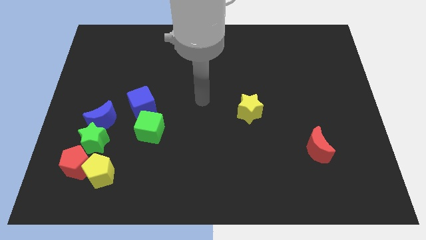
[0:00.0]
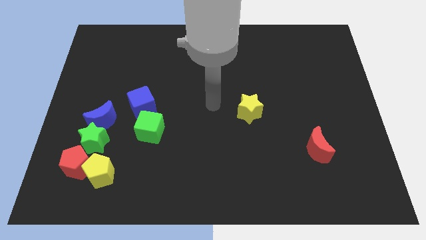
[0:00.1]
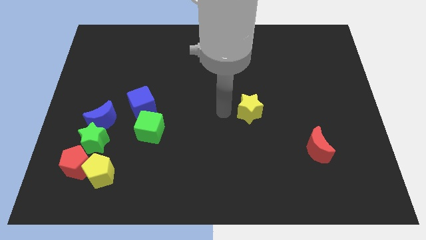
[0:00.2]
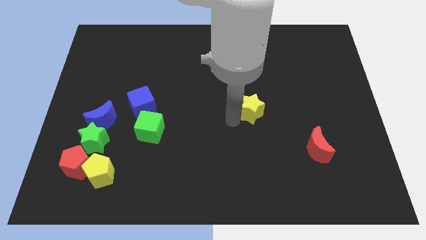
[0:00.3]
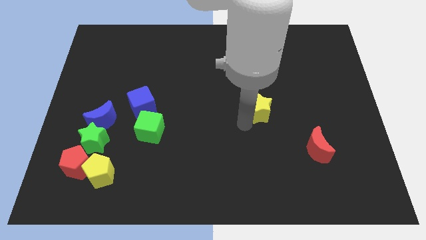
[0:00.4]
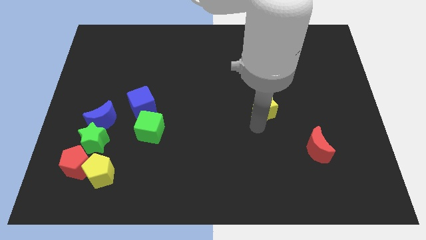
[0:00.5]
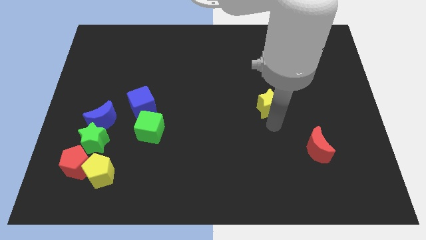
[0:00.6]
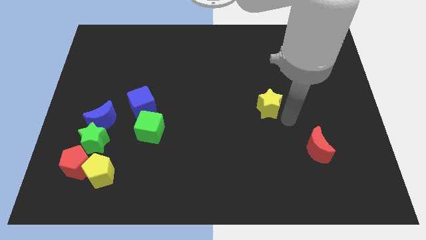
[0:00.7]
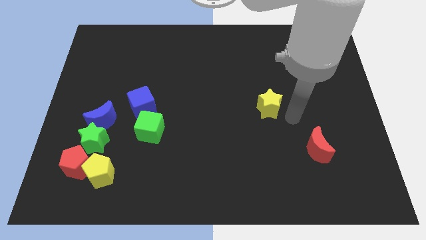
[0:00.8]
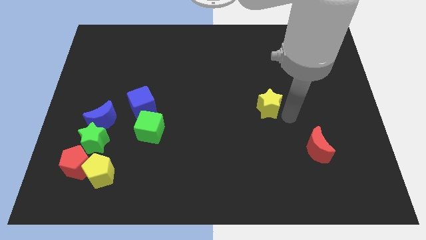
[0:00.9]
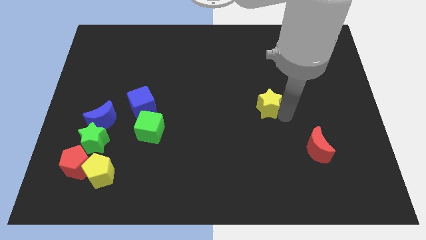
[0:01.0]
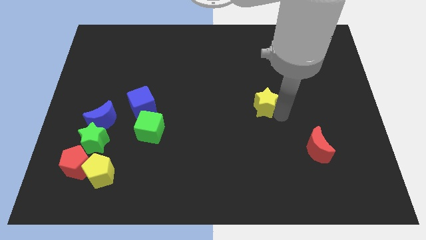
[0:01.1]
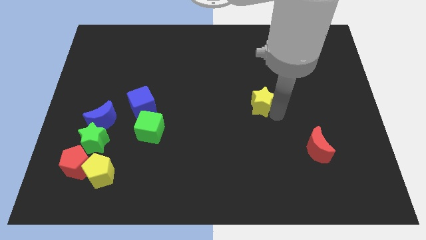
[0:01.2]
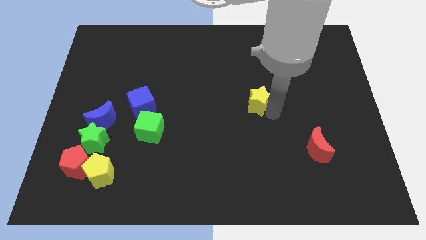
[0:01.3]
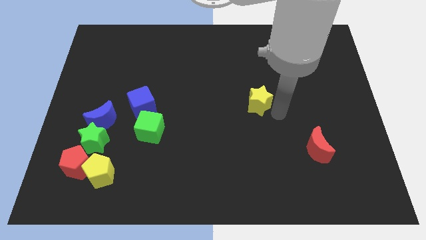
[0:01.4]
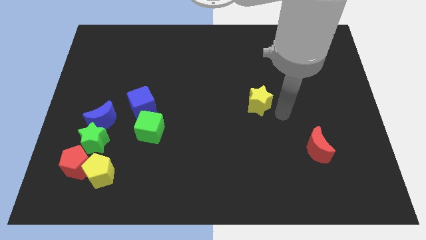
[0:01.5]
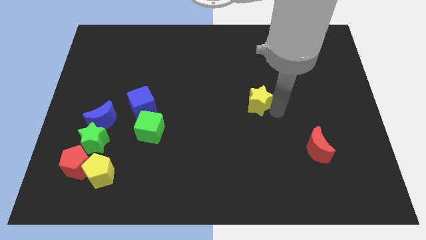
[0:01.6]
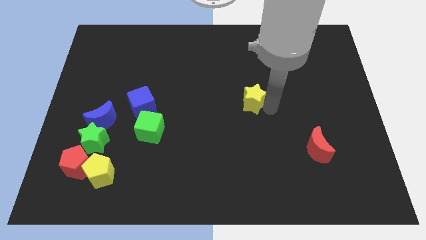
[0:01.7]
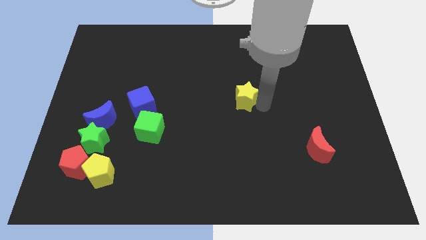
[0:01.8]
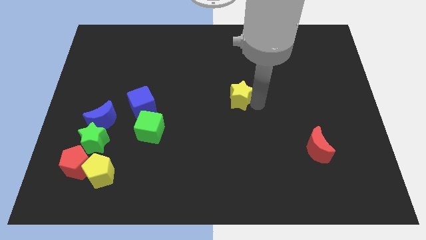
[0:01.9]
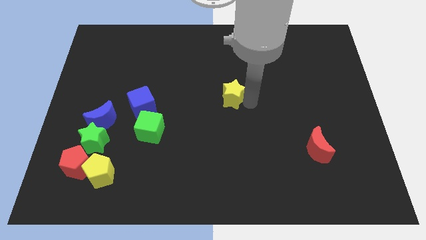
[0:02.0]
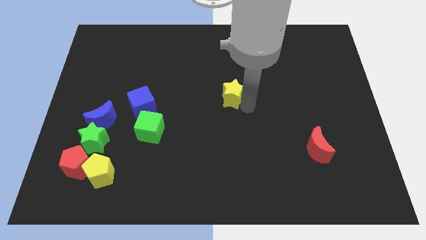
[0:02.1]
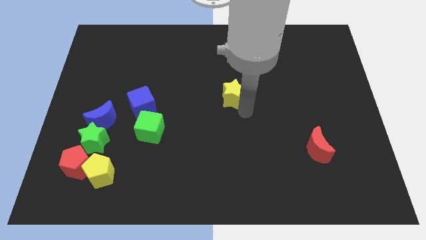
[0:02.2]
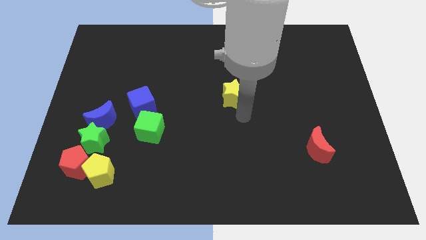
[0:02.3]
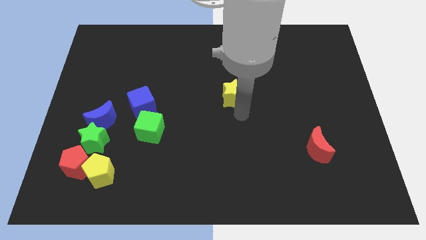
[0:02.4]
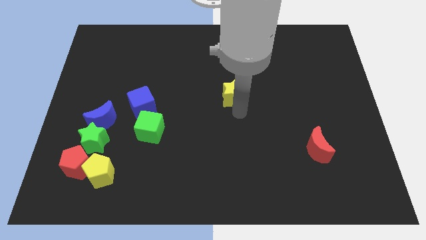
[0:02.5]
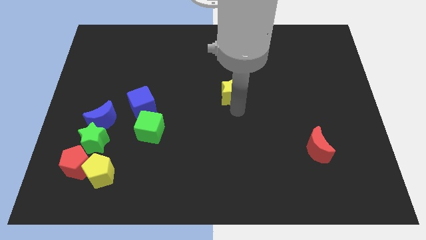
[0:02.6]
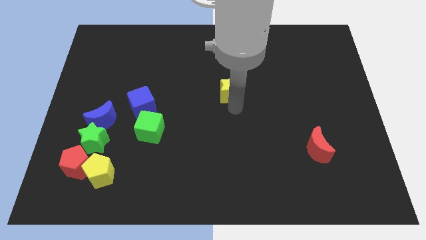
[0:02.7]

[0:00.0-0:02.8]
move the yellow star a little bit upwards and then to the left

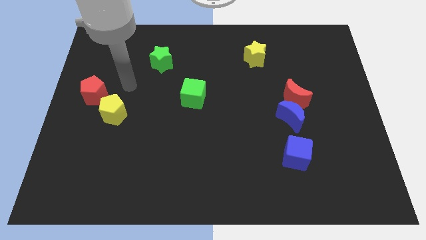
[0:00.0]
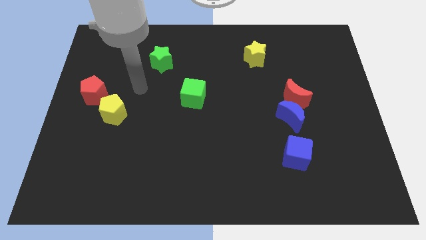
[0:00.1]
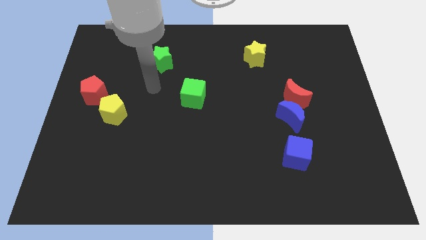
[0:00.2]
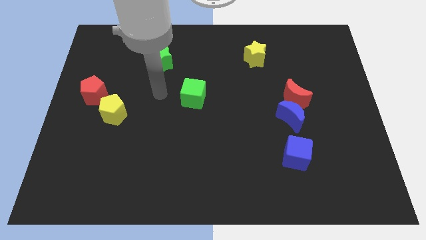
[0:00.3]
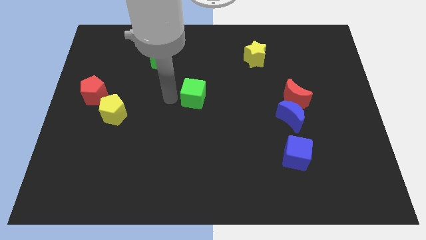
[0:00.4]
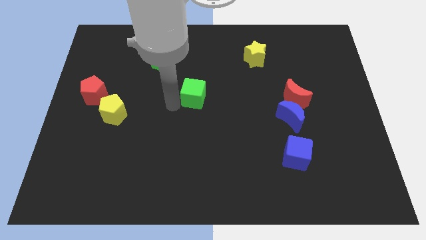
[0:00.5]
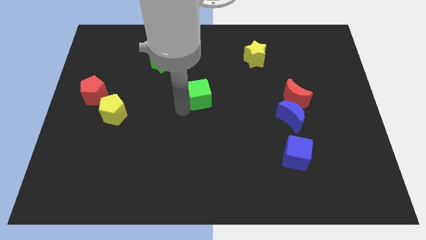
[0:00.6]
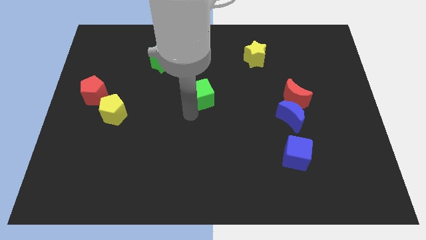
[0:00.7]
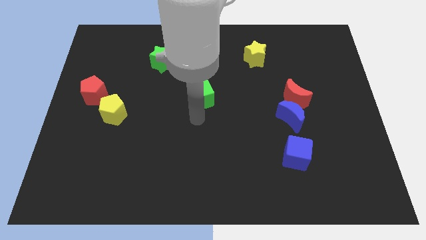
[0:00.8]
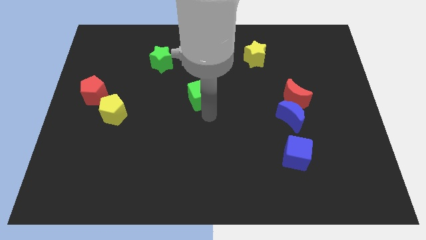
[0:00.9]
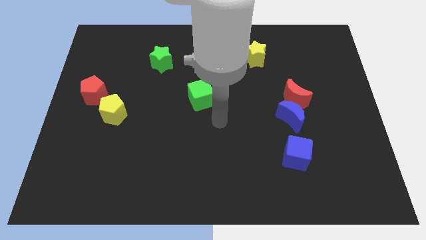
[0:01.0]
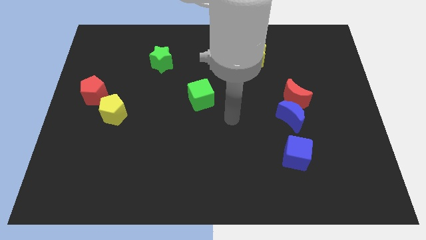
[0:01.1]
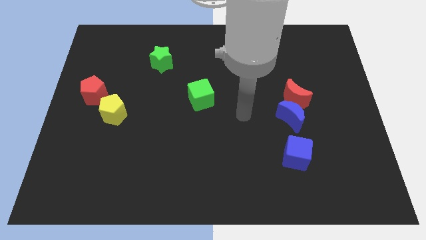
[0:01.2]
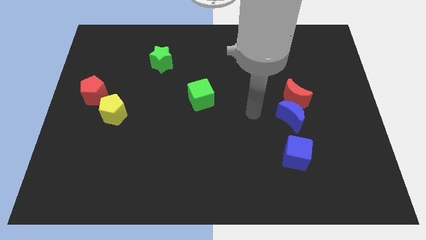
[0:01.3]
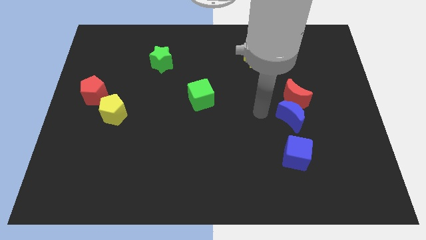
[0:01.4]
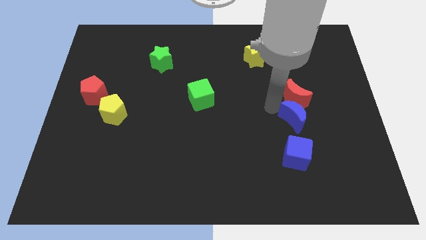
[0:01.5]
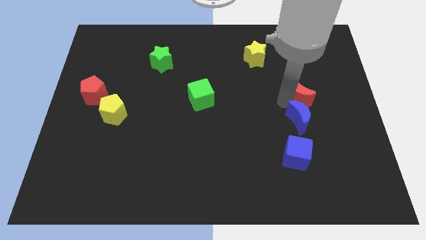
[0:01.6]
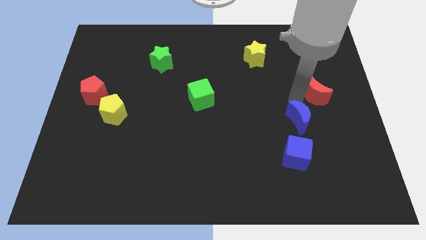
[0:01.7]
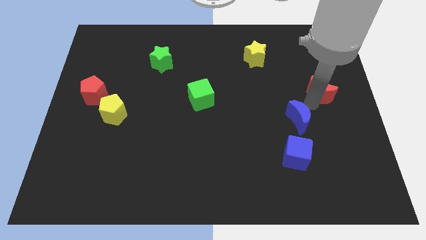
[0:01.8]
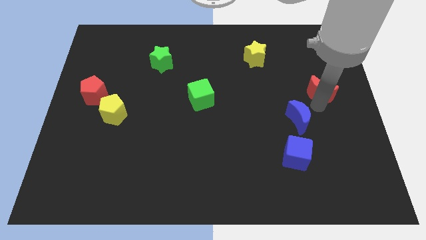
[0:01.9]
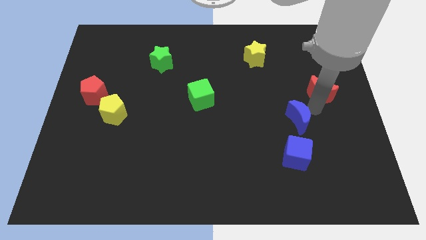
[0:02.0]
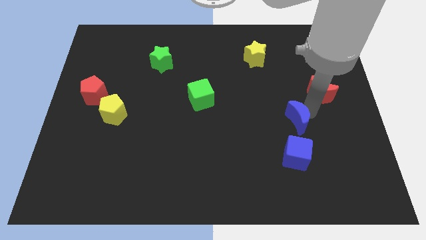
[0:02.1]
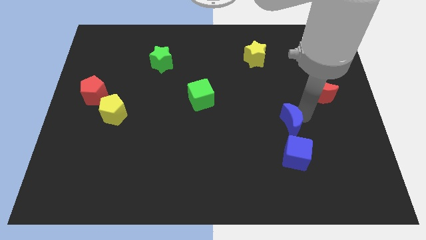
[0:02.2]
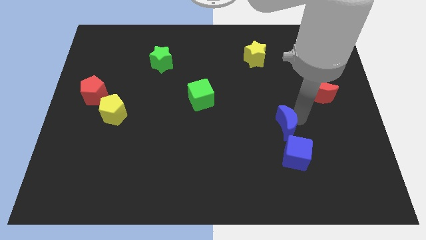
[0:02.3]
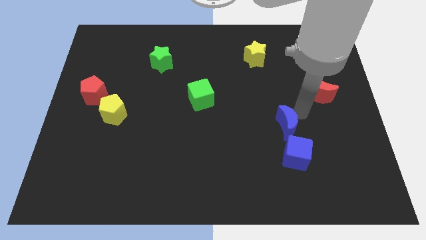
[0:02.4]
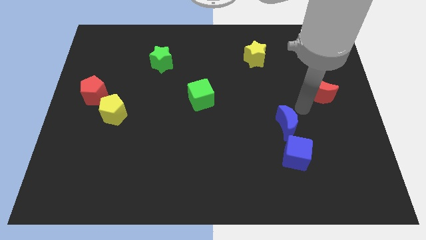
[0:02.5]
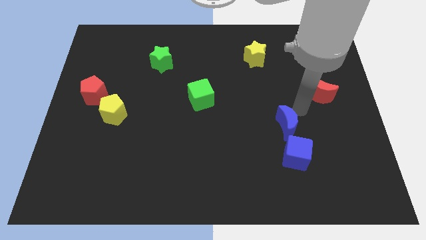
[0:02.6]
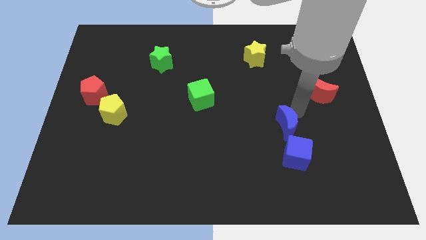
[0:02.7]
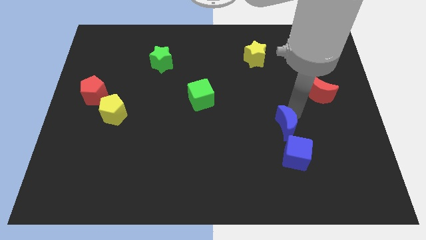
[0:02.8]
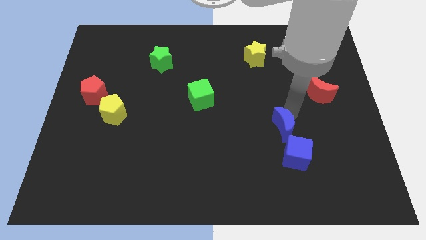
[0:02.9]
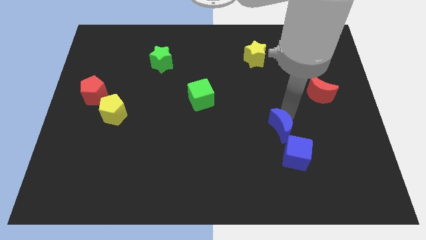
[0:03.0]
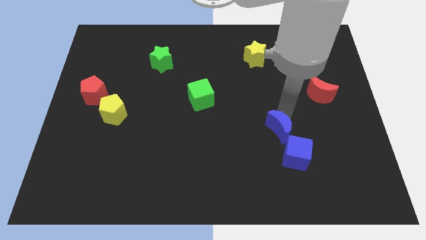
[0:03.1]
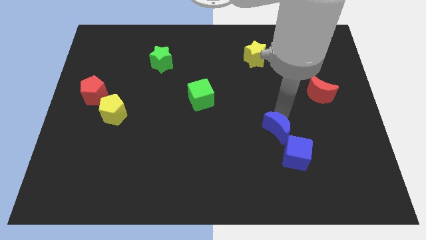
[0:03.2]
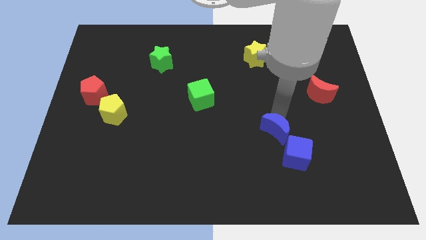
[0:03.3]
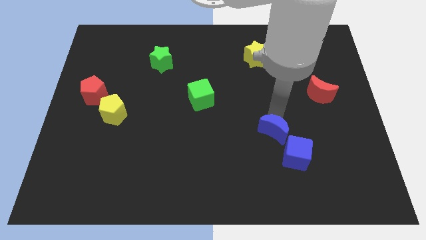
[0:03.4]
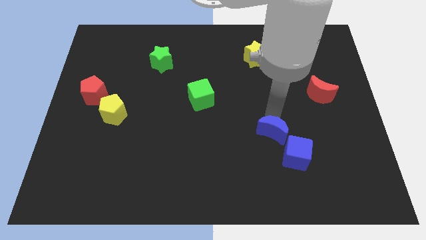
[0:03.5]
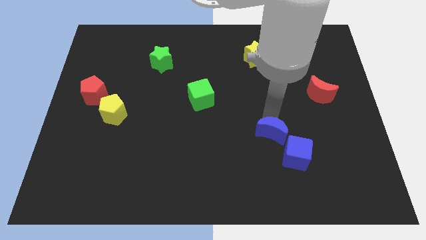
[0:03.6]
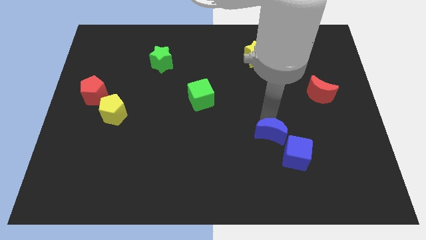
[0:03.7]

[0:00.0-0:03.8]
slightly move the blue moon diagonally downwards and left

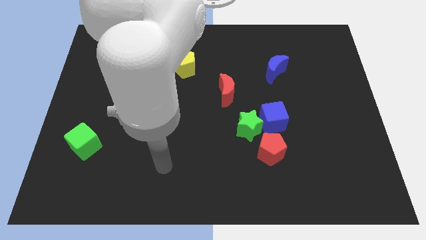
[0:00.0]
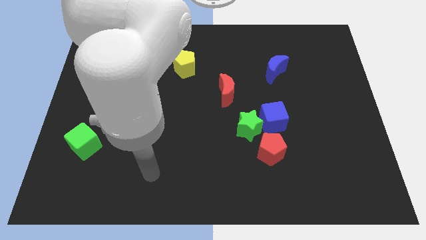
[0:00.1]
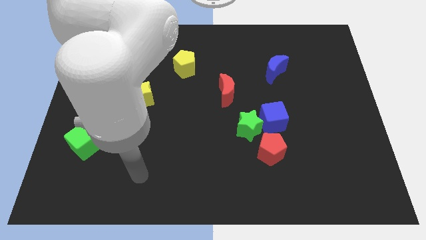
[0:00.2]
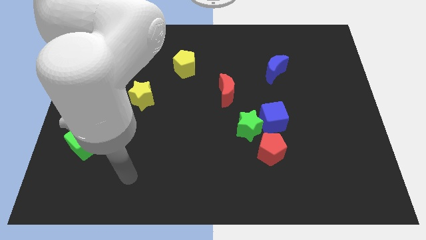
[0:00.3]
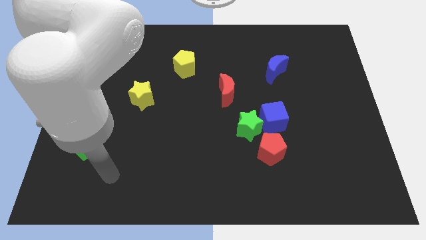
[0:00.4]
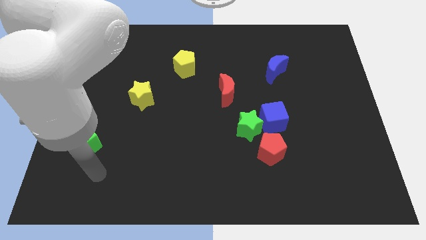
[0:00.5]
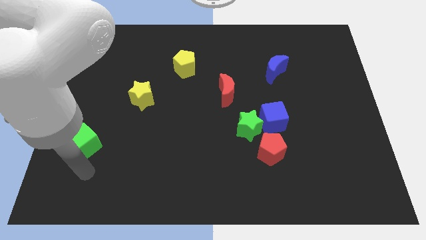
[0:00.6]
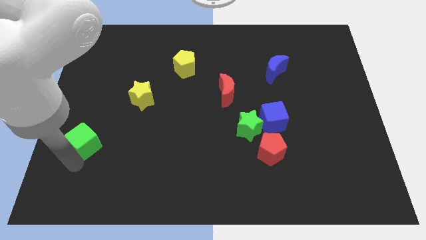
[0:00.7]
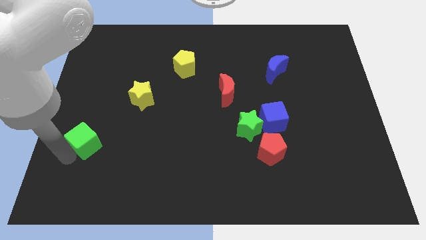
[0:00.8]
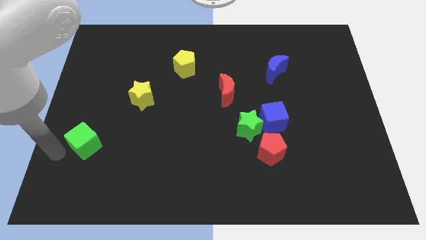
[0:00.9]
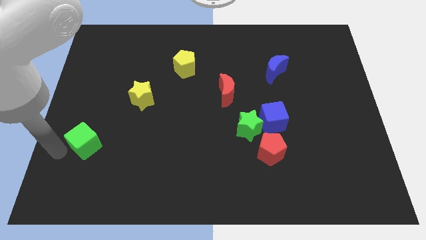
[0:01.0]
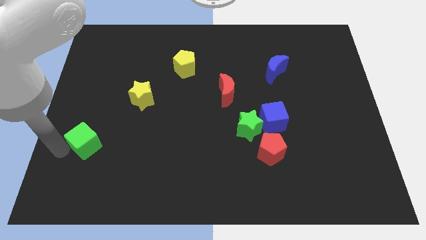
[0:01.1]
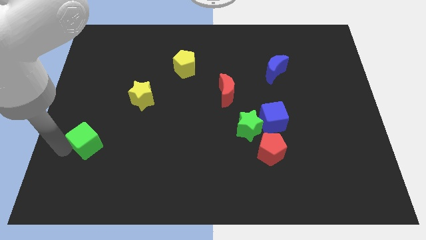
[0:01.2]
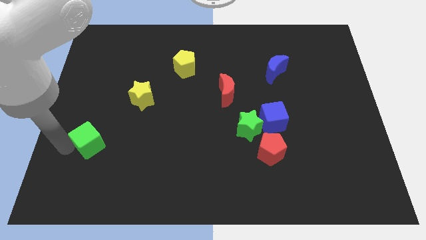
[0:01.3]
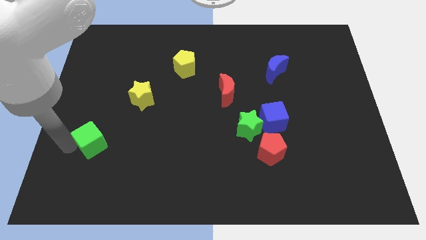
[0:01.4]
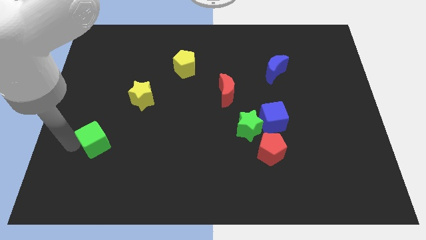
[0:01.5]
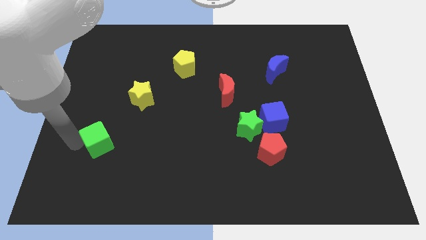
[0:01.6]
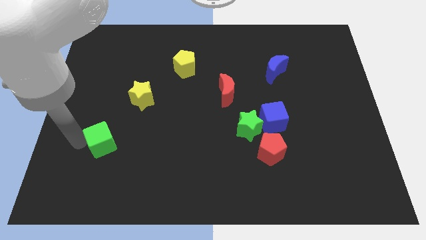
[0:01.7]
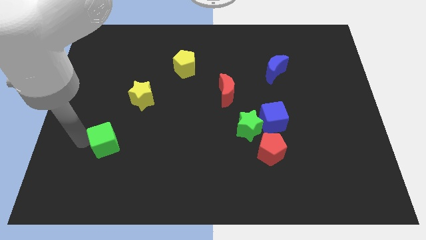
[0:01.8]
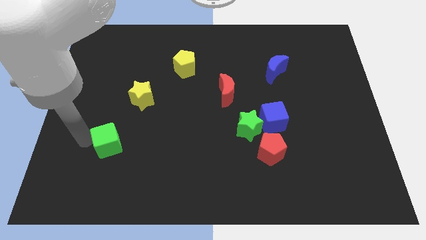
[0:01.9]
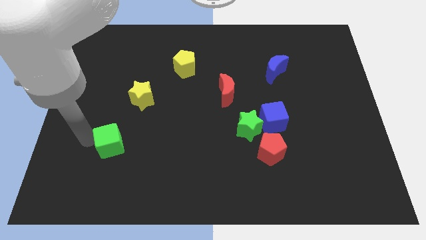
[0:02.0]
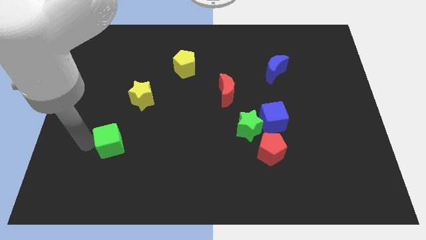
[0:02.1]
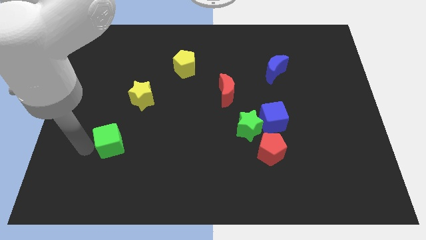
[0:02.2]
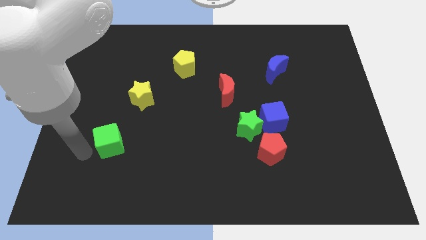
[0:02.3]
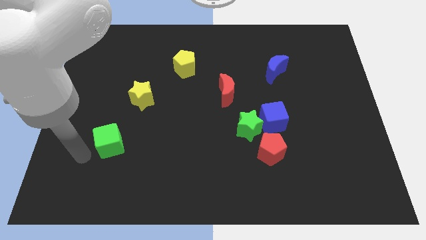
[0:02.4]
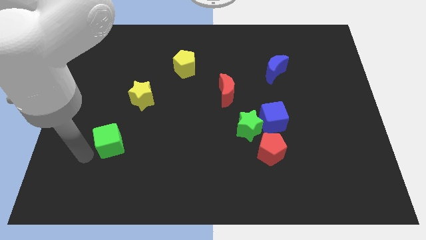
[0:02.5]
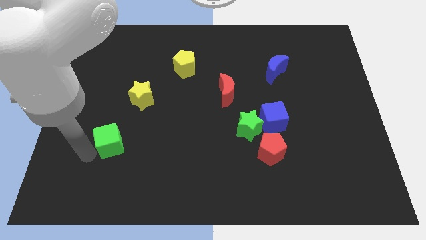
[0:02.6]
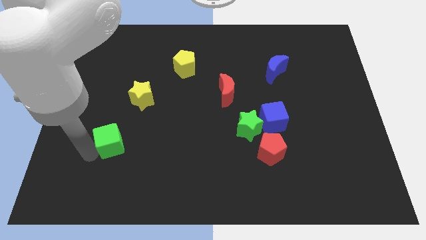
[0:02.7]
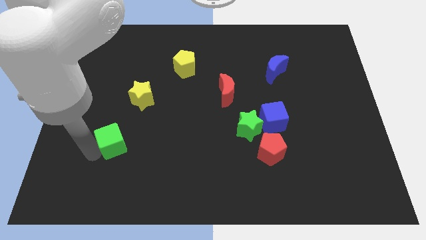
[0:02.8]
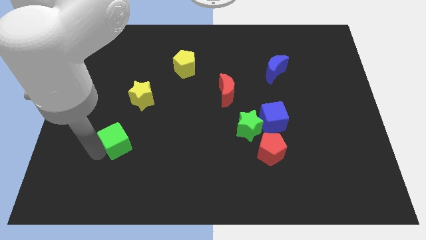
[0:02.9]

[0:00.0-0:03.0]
slightly slide the green cube right
